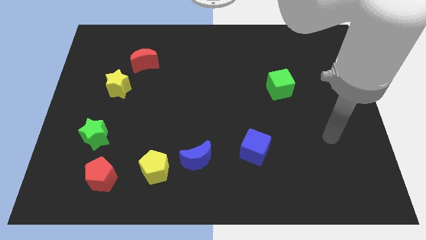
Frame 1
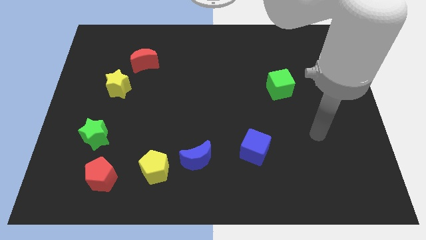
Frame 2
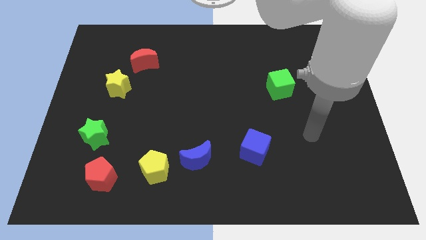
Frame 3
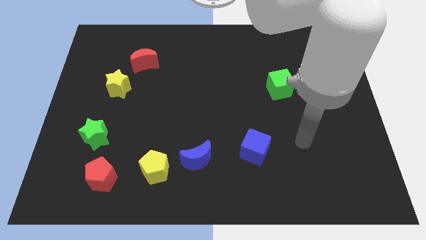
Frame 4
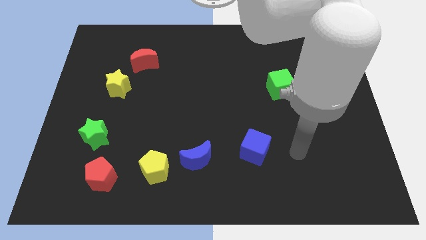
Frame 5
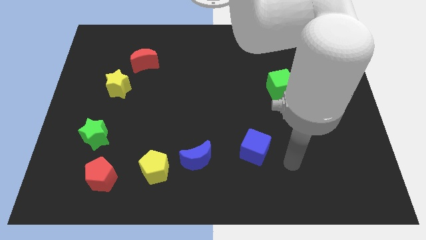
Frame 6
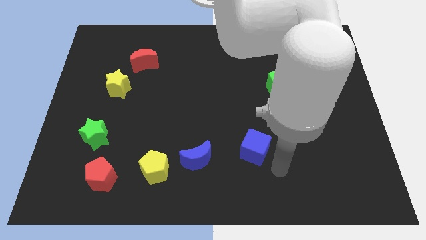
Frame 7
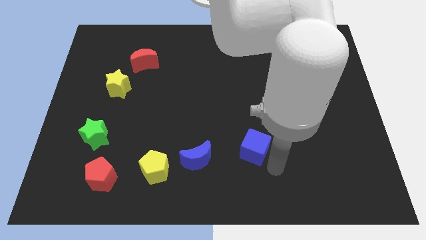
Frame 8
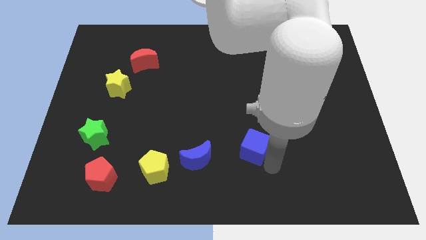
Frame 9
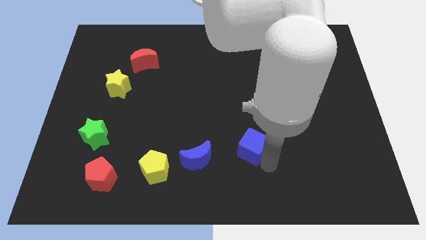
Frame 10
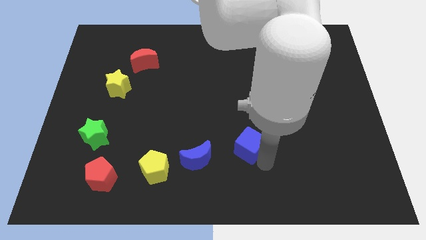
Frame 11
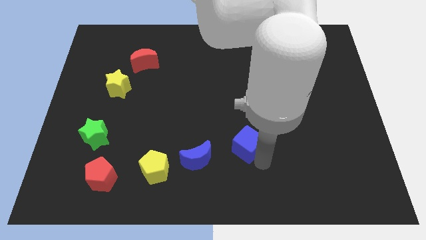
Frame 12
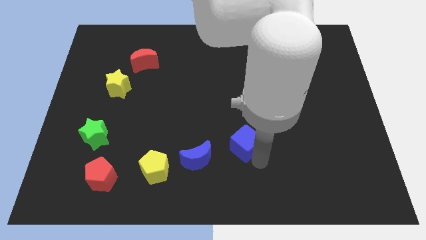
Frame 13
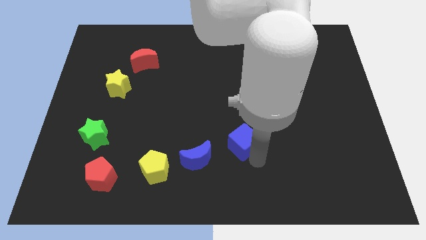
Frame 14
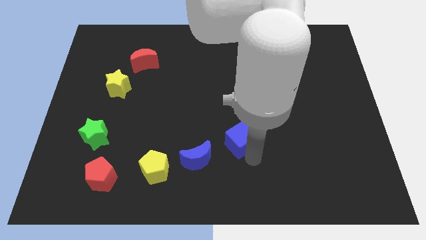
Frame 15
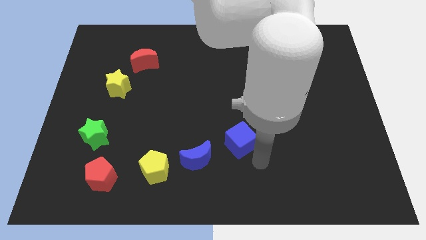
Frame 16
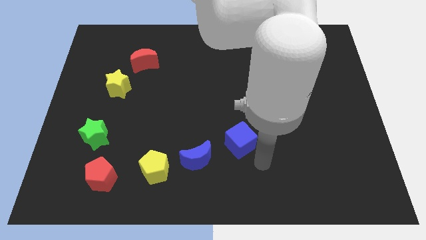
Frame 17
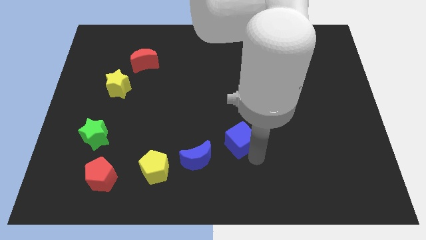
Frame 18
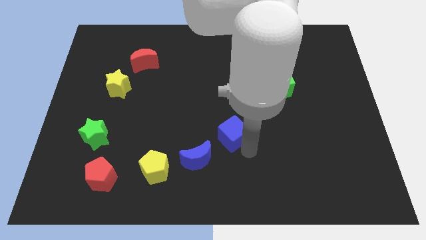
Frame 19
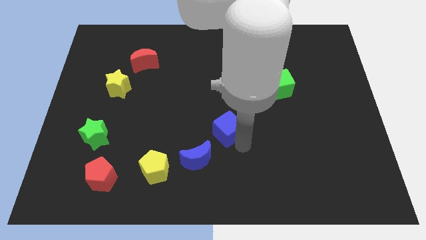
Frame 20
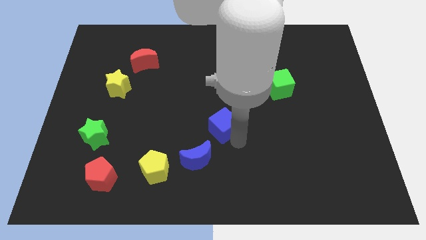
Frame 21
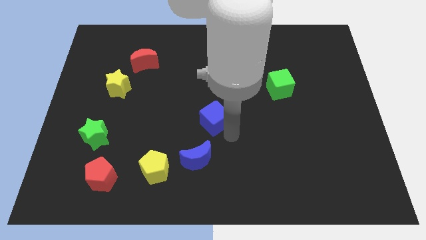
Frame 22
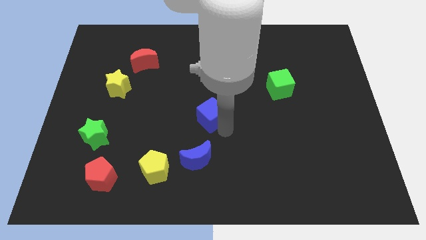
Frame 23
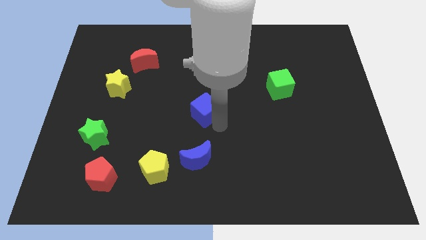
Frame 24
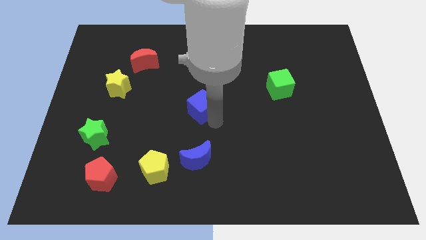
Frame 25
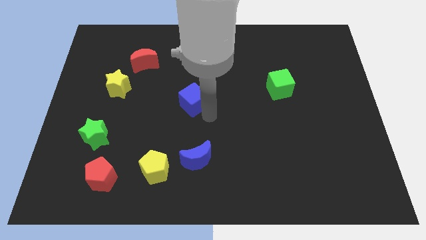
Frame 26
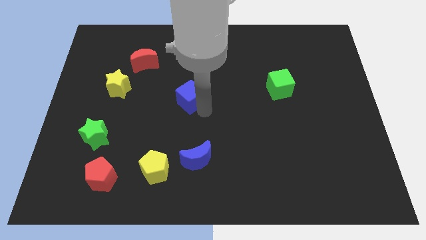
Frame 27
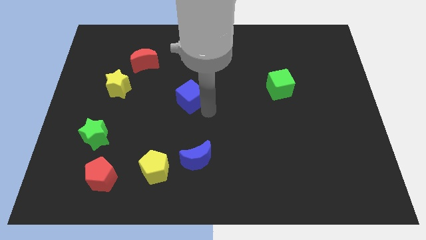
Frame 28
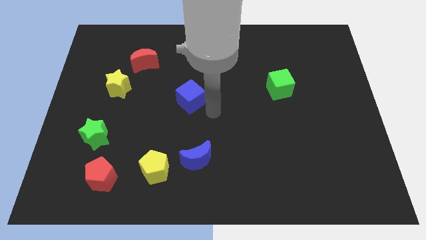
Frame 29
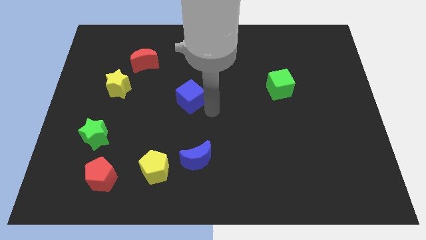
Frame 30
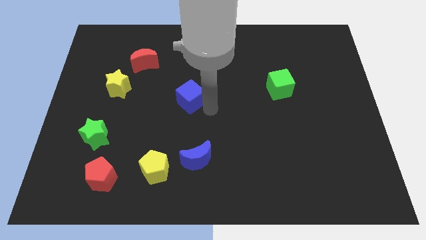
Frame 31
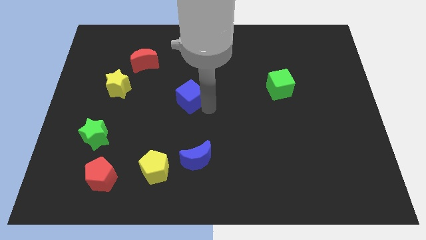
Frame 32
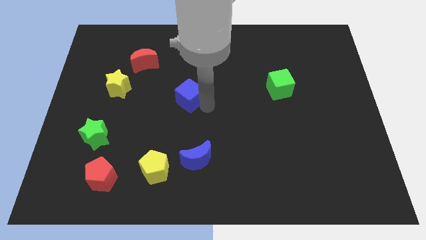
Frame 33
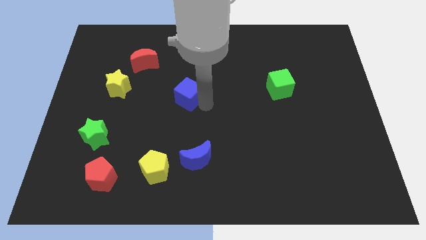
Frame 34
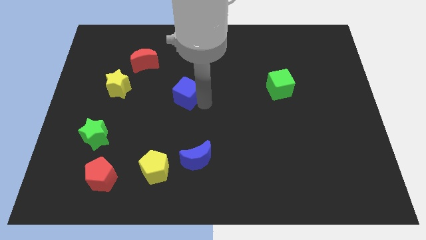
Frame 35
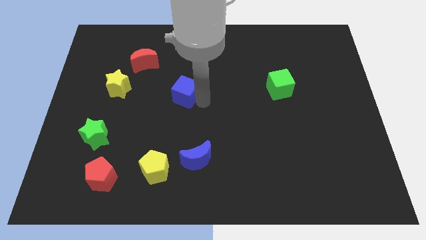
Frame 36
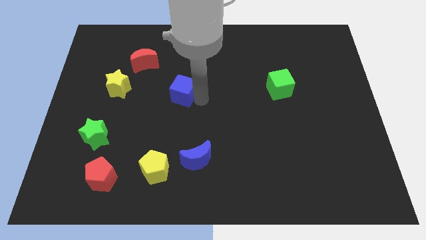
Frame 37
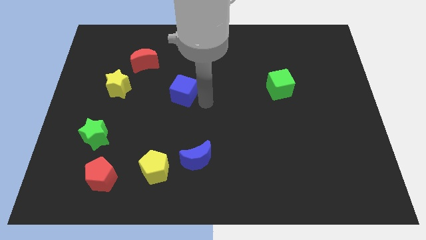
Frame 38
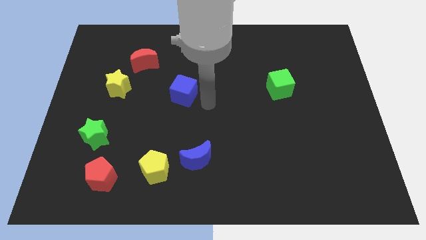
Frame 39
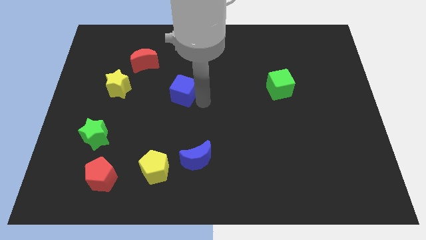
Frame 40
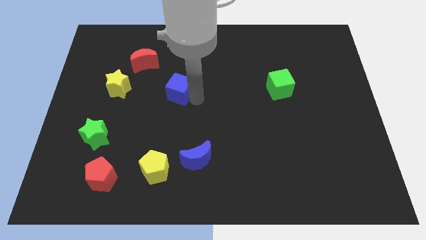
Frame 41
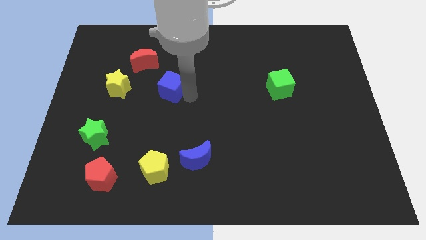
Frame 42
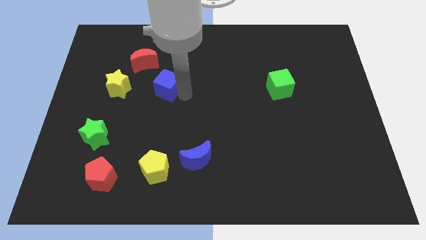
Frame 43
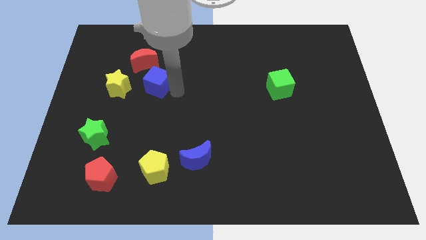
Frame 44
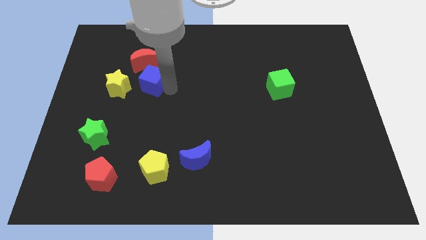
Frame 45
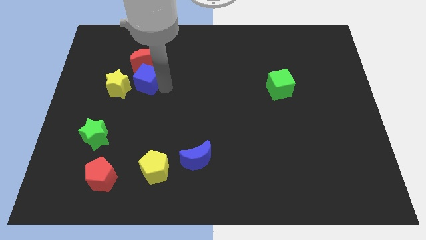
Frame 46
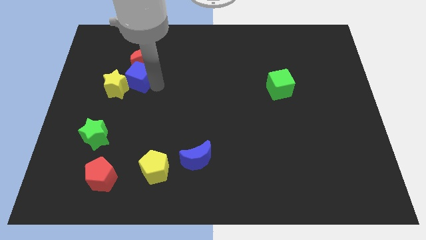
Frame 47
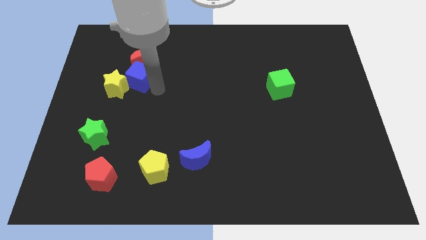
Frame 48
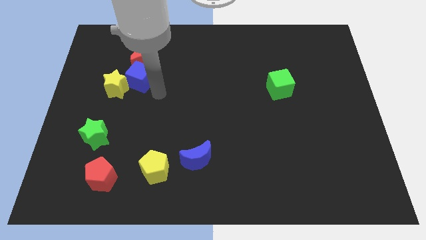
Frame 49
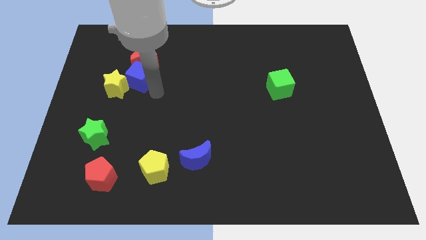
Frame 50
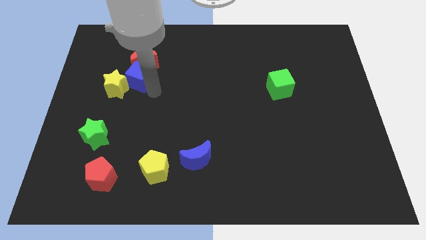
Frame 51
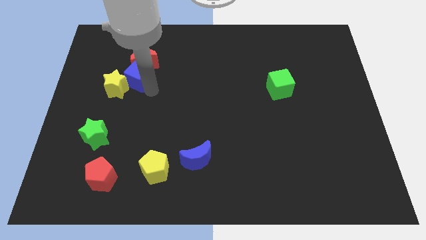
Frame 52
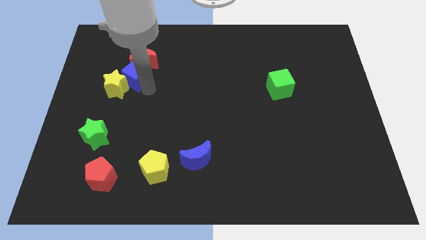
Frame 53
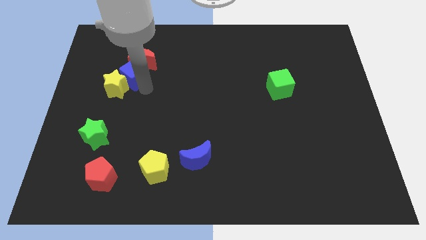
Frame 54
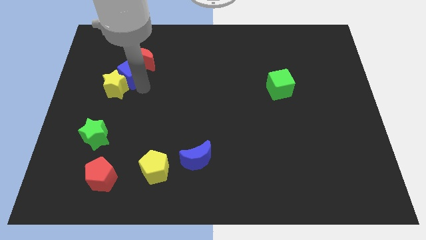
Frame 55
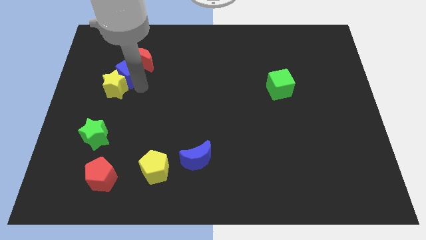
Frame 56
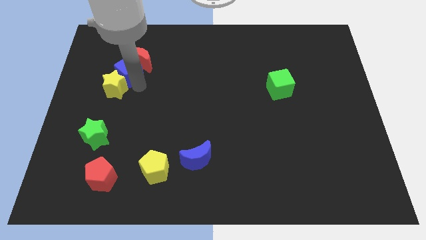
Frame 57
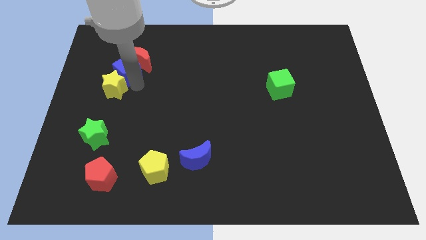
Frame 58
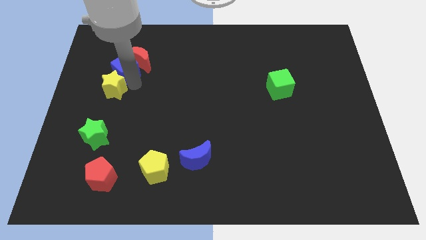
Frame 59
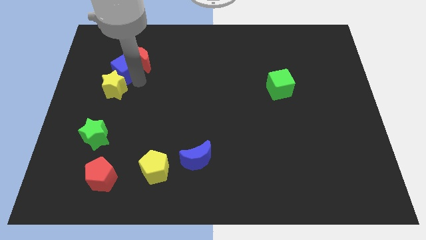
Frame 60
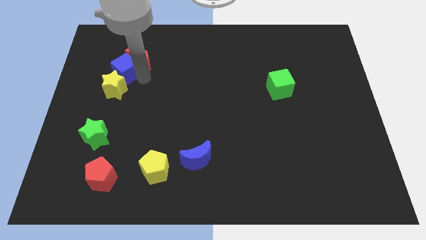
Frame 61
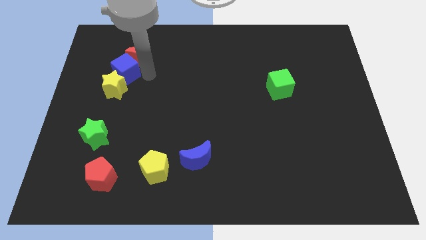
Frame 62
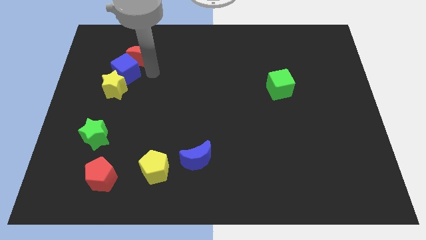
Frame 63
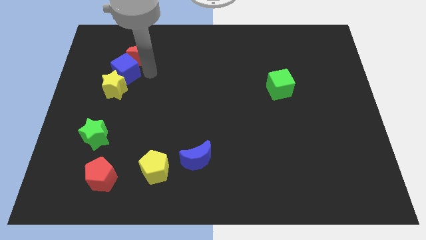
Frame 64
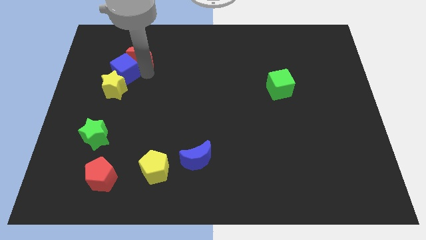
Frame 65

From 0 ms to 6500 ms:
put the blue cube to the top left side of the yellow star

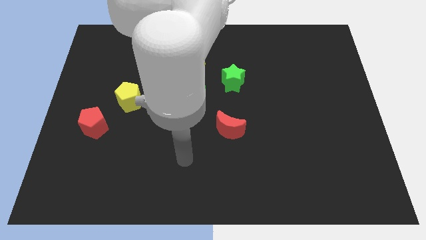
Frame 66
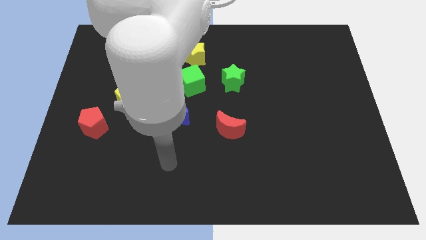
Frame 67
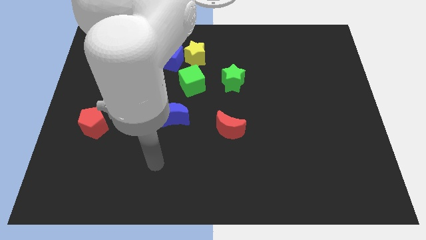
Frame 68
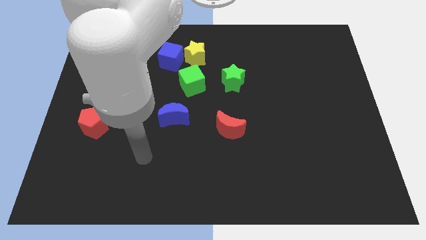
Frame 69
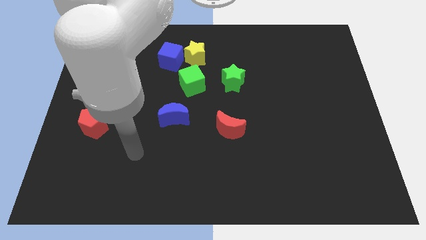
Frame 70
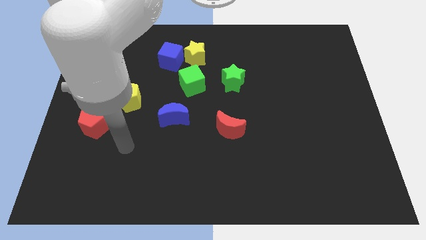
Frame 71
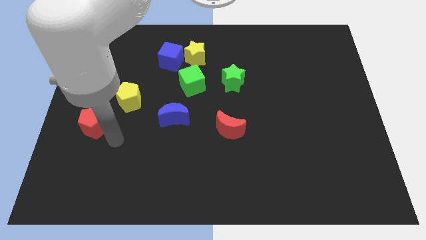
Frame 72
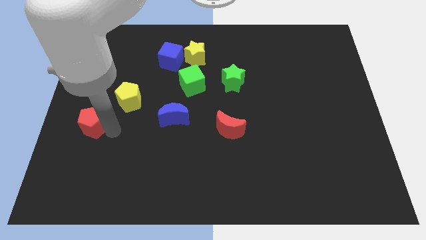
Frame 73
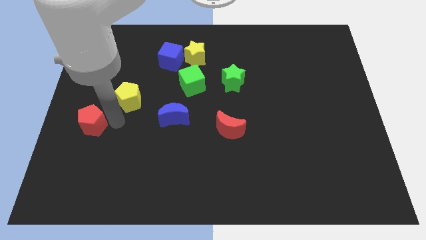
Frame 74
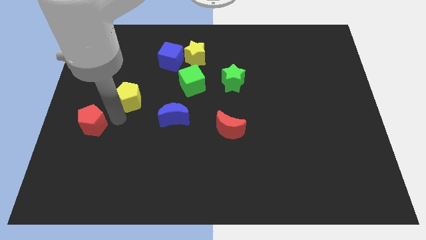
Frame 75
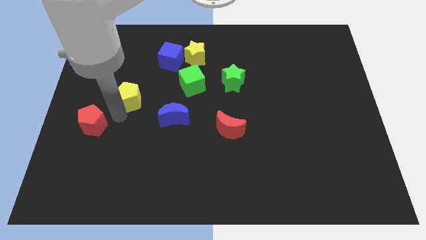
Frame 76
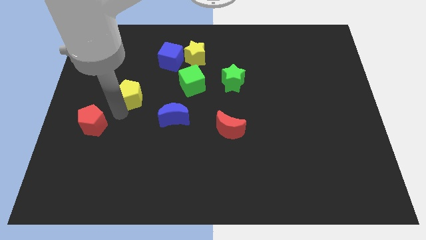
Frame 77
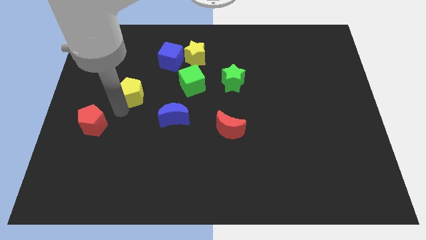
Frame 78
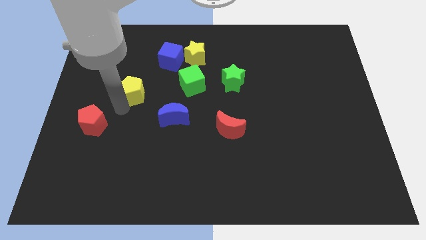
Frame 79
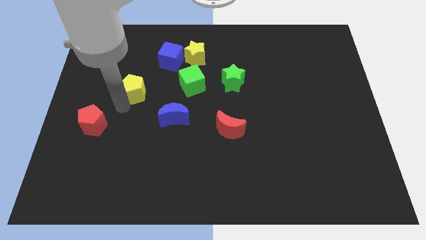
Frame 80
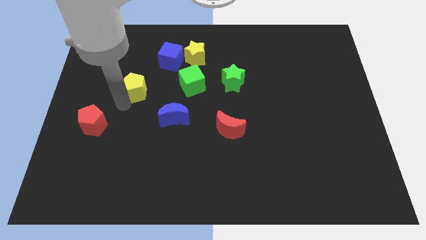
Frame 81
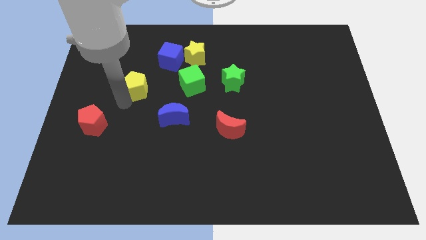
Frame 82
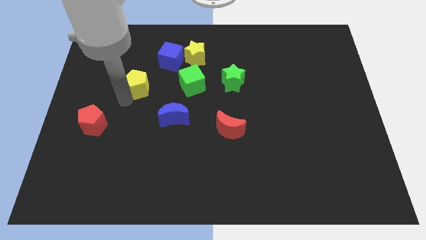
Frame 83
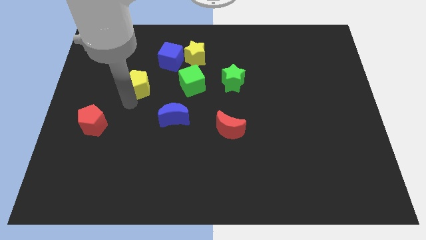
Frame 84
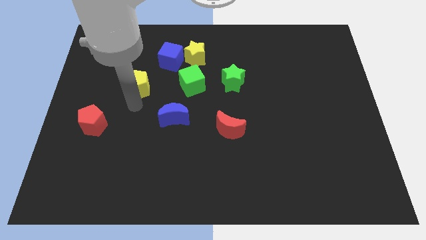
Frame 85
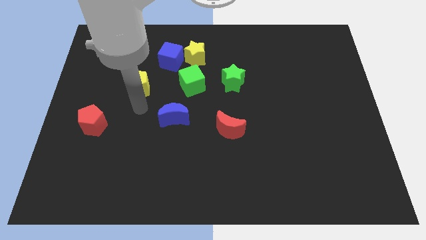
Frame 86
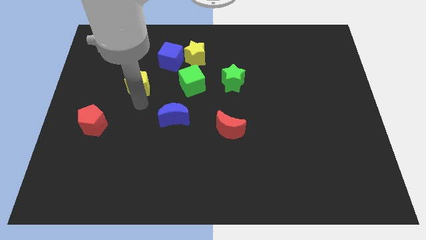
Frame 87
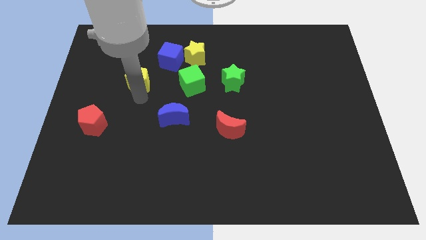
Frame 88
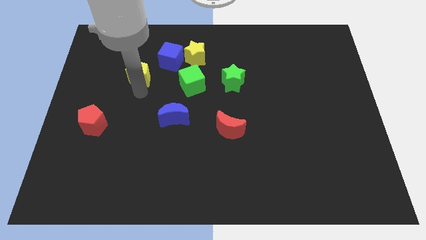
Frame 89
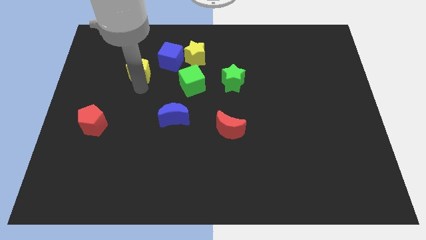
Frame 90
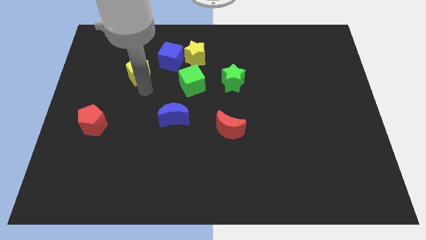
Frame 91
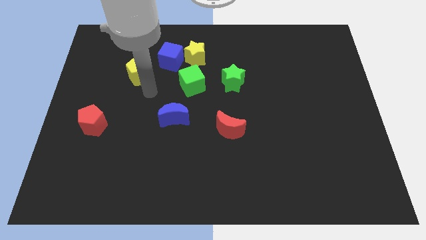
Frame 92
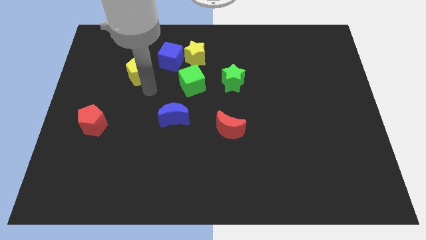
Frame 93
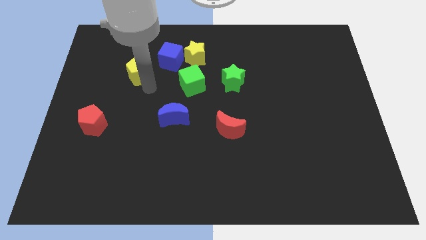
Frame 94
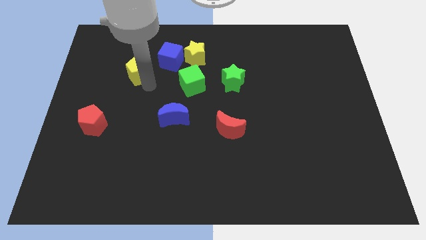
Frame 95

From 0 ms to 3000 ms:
move the yellow pentagon left of the blue cube
